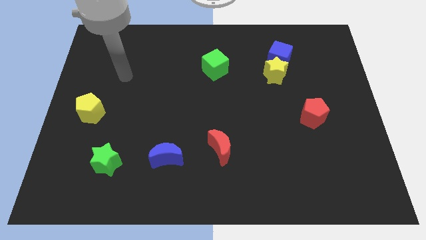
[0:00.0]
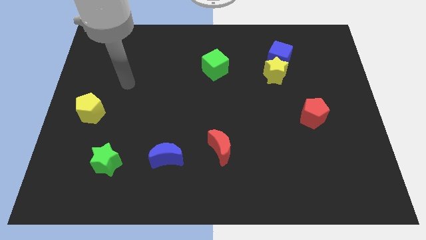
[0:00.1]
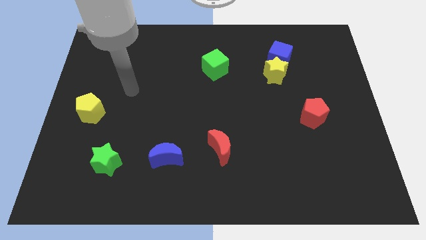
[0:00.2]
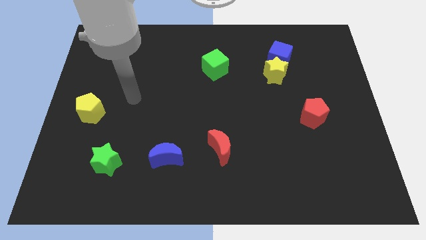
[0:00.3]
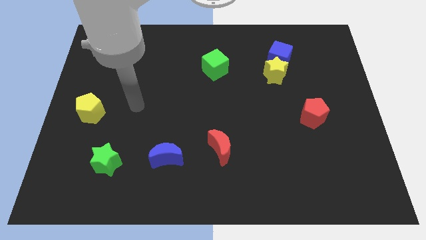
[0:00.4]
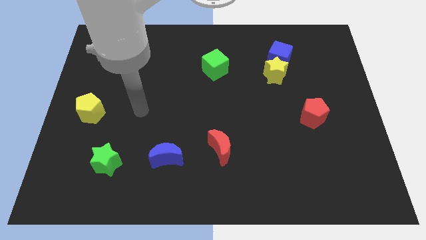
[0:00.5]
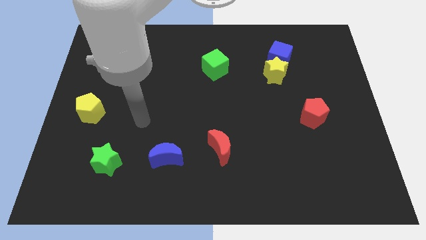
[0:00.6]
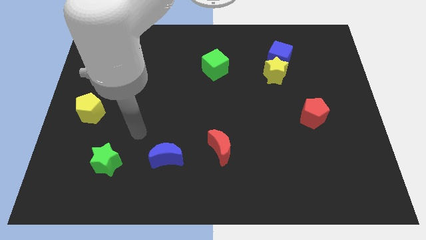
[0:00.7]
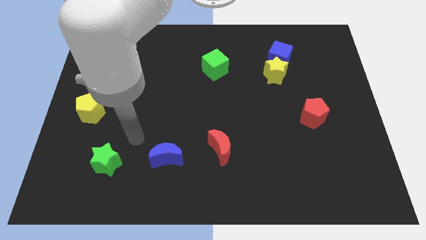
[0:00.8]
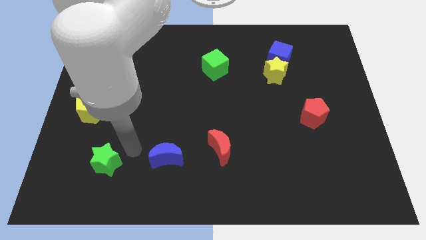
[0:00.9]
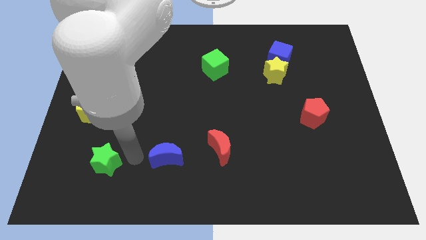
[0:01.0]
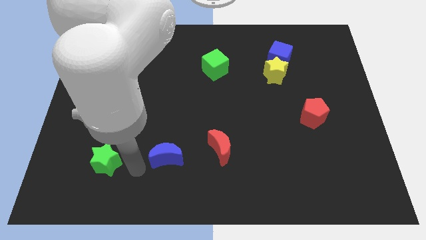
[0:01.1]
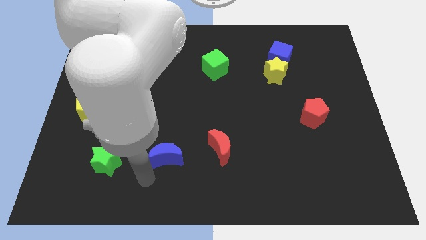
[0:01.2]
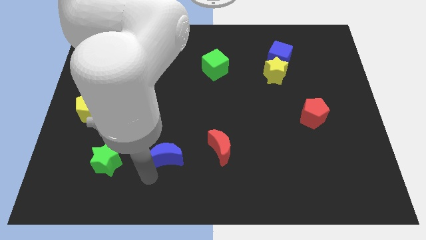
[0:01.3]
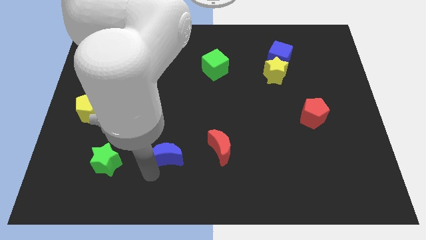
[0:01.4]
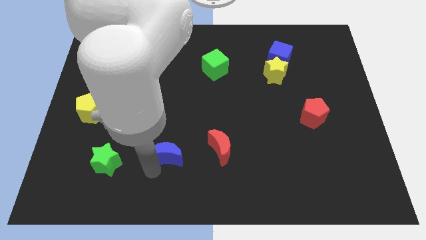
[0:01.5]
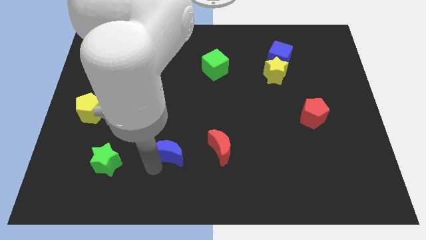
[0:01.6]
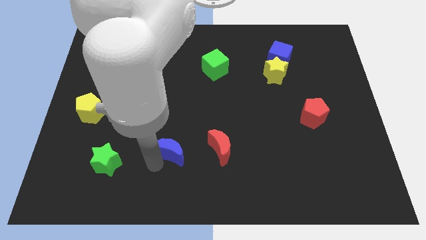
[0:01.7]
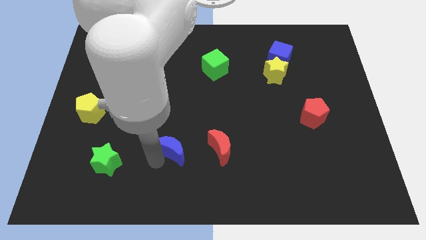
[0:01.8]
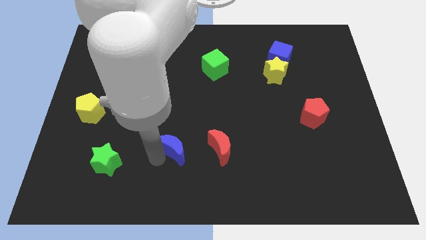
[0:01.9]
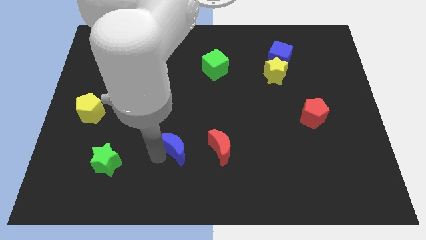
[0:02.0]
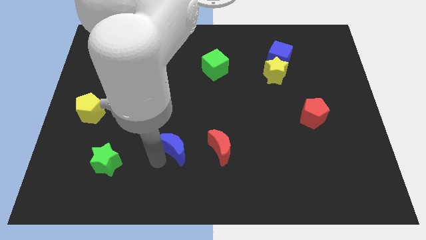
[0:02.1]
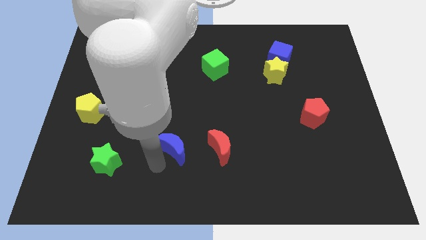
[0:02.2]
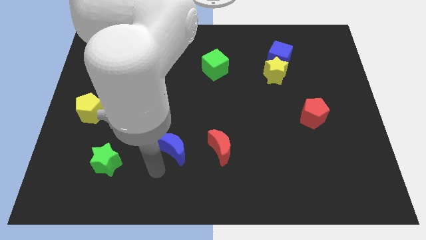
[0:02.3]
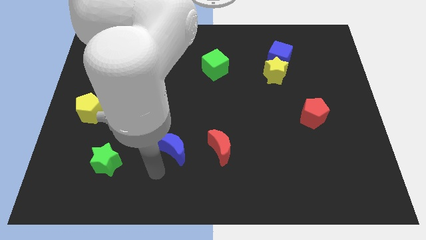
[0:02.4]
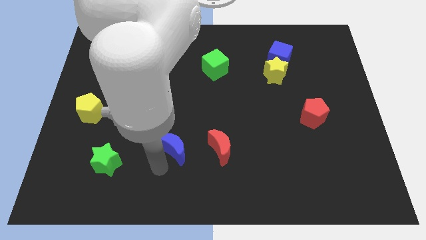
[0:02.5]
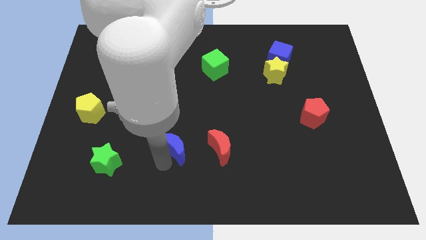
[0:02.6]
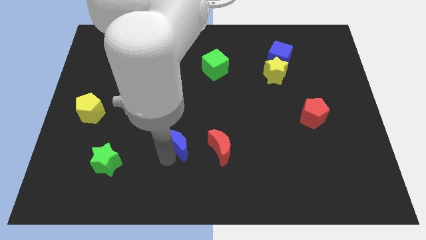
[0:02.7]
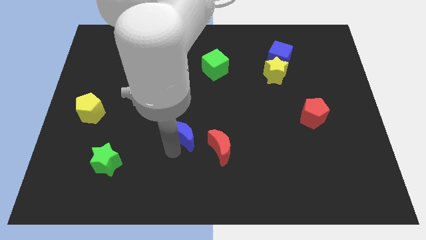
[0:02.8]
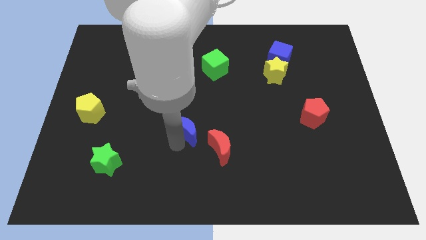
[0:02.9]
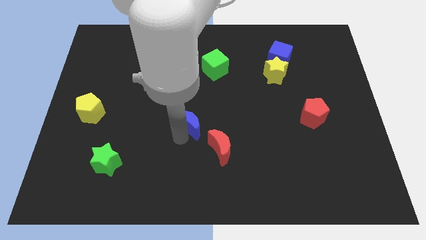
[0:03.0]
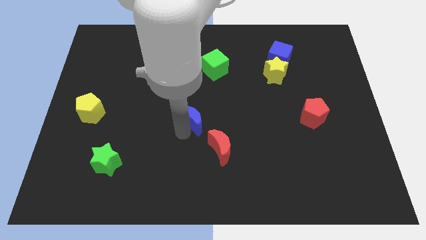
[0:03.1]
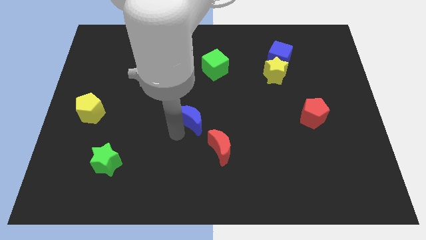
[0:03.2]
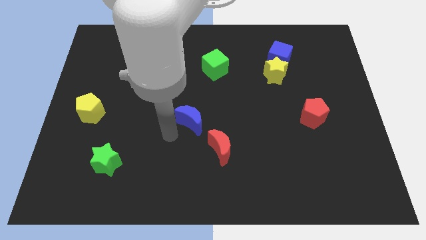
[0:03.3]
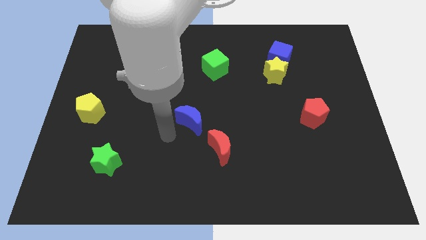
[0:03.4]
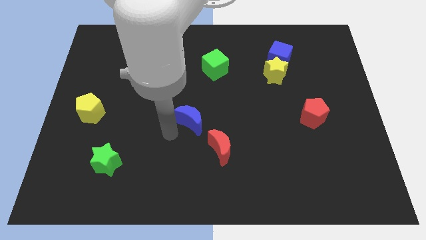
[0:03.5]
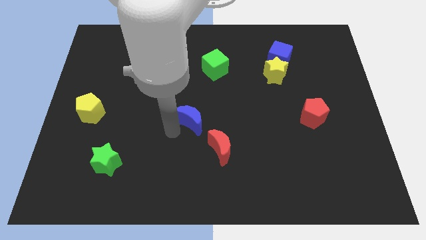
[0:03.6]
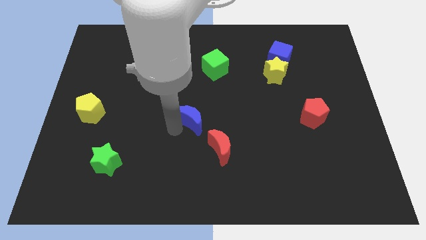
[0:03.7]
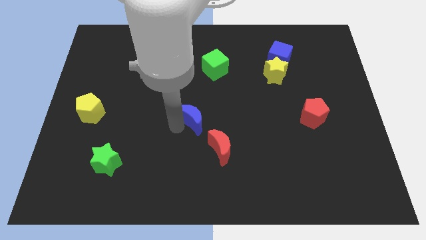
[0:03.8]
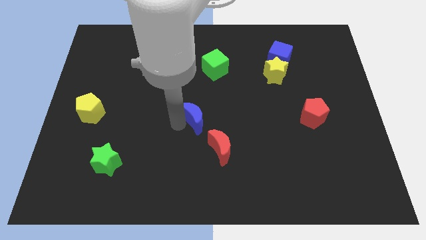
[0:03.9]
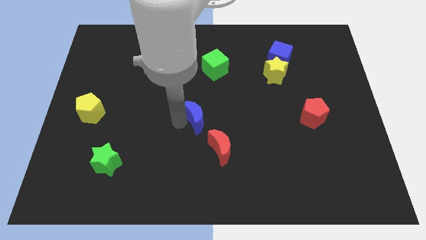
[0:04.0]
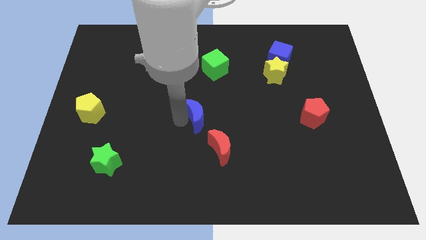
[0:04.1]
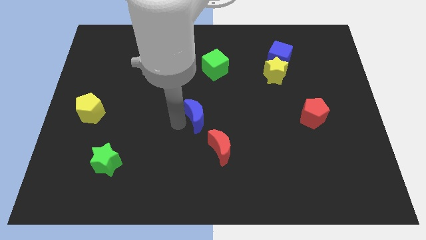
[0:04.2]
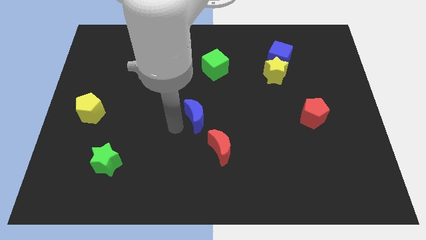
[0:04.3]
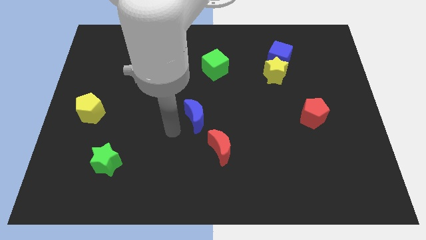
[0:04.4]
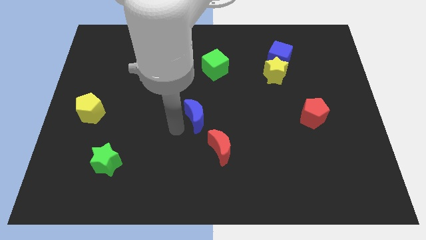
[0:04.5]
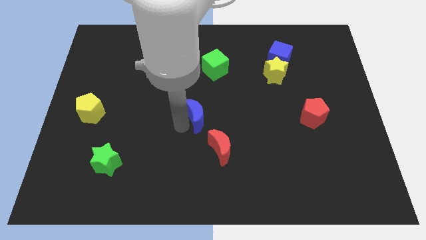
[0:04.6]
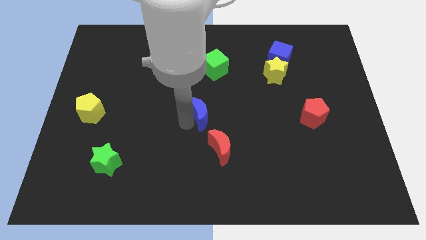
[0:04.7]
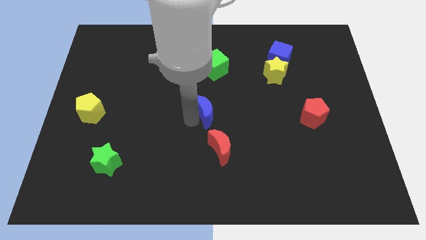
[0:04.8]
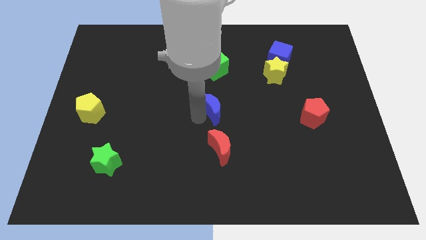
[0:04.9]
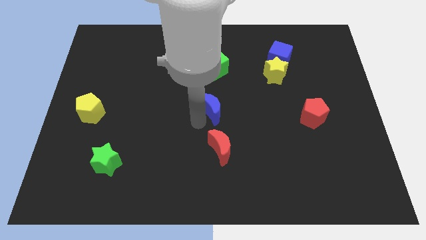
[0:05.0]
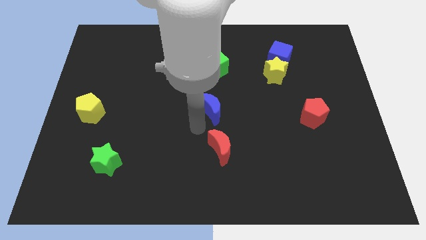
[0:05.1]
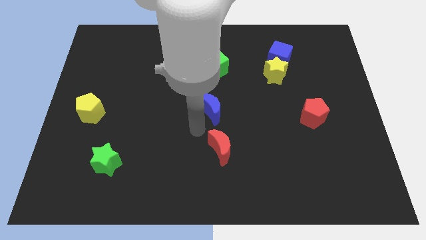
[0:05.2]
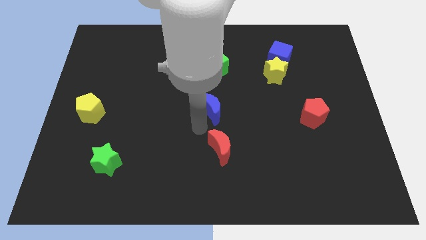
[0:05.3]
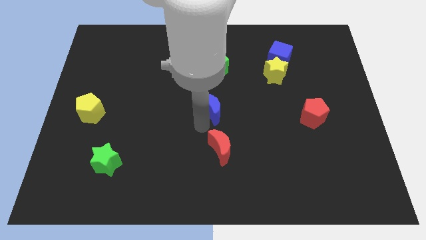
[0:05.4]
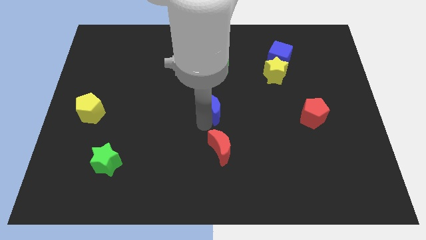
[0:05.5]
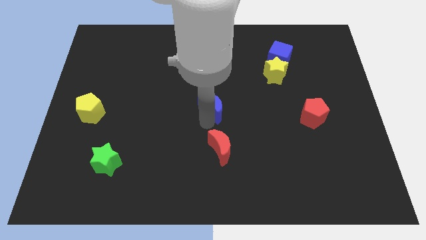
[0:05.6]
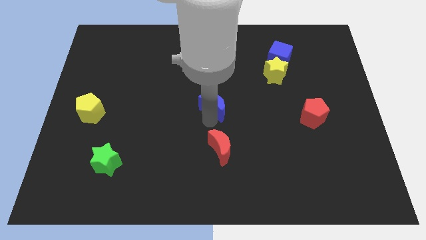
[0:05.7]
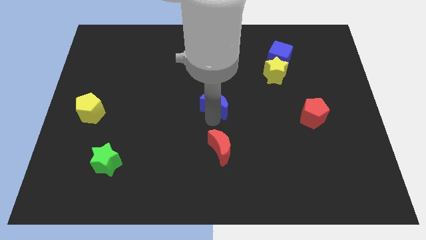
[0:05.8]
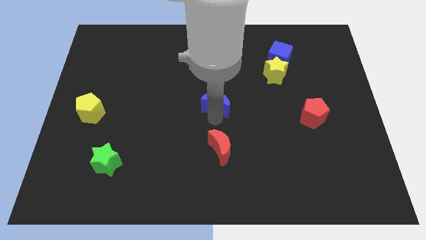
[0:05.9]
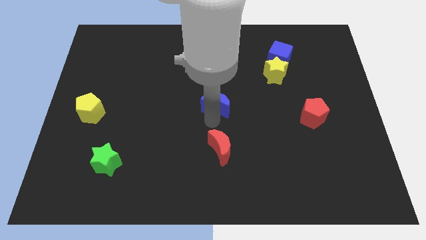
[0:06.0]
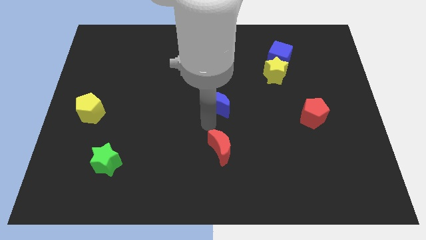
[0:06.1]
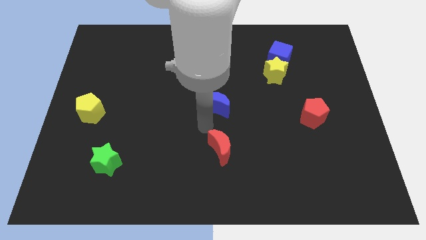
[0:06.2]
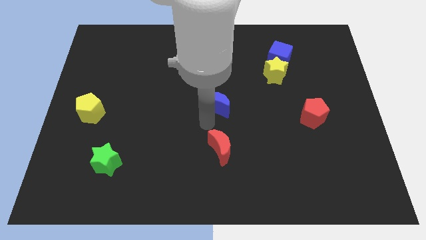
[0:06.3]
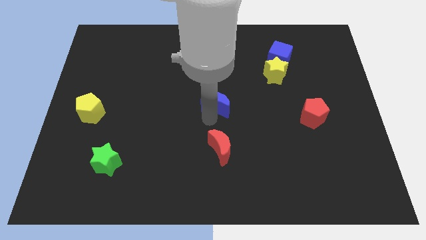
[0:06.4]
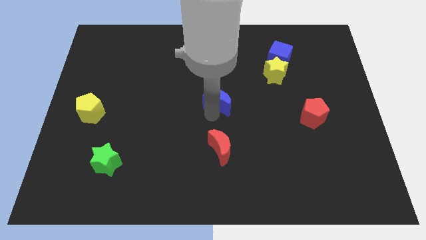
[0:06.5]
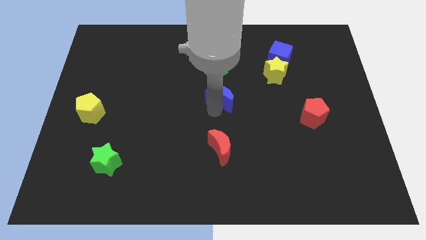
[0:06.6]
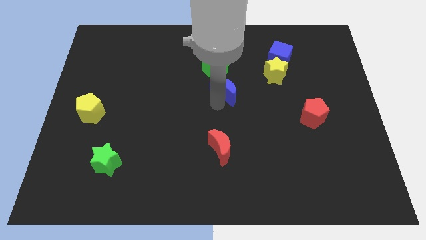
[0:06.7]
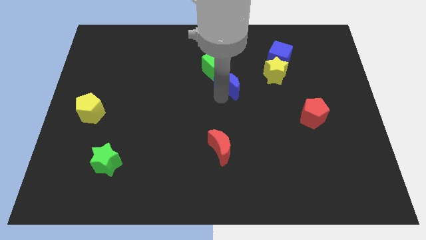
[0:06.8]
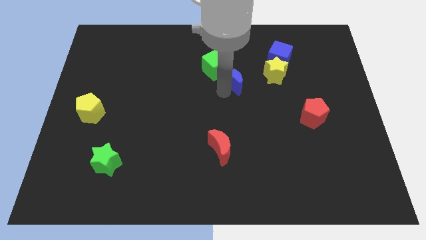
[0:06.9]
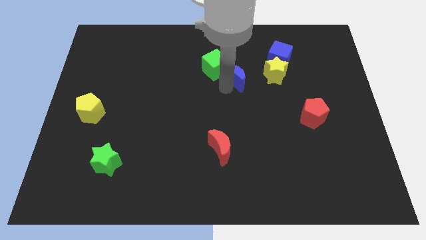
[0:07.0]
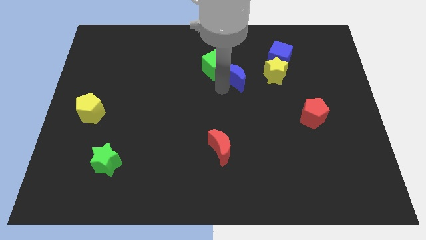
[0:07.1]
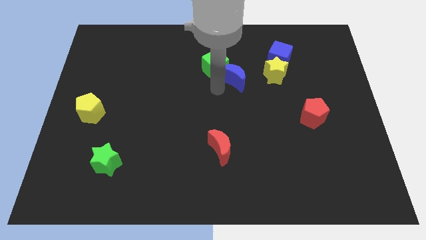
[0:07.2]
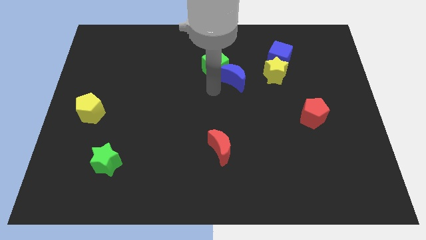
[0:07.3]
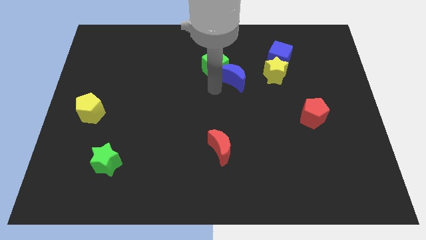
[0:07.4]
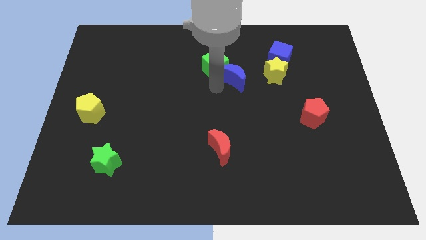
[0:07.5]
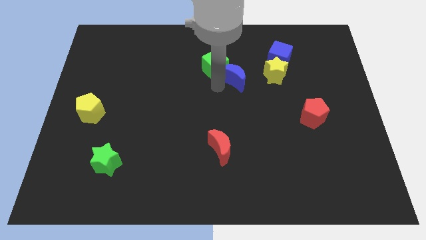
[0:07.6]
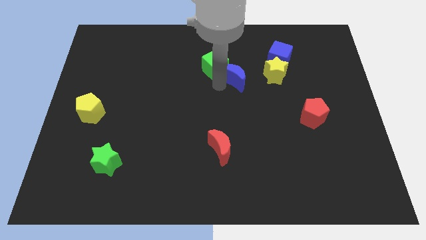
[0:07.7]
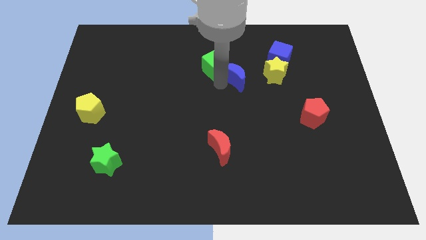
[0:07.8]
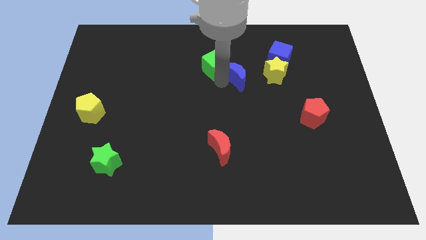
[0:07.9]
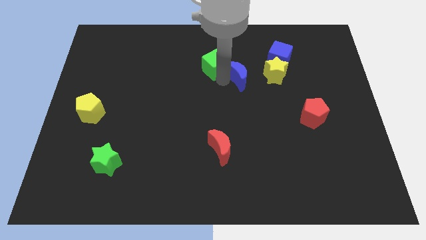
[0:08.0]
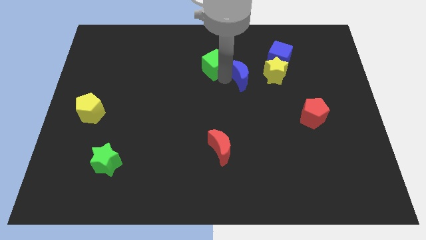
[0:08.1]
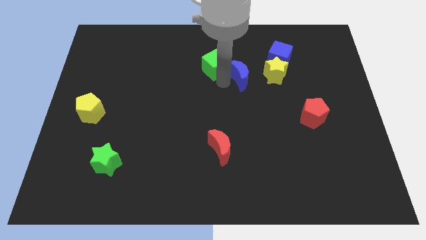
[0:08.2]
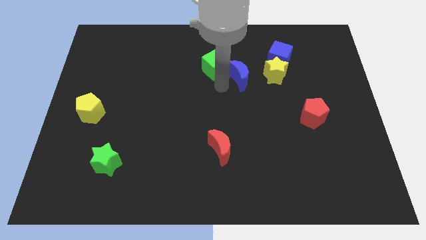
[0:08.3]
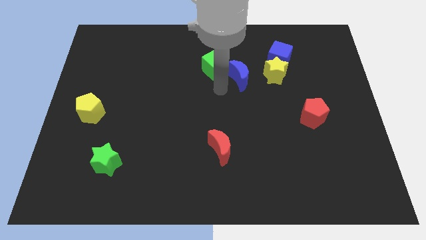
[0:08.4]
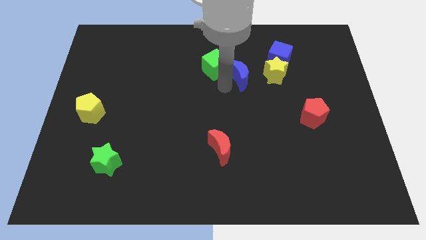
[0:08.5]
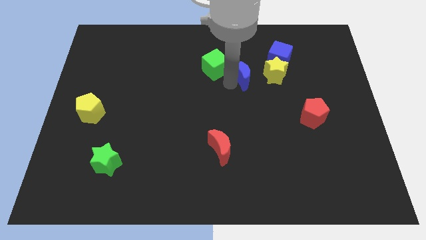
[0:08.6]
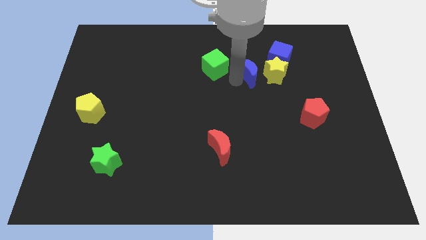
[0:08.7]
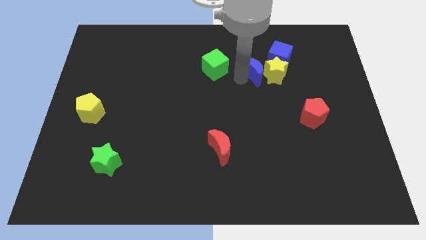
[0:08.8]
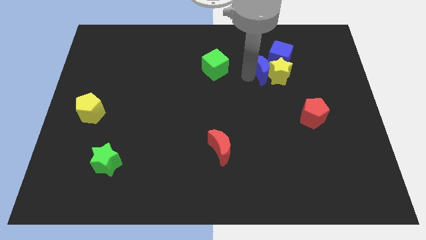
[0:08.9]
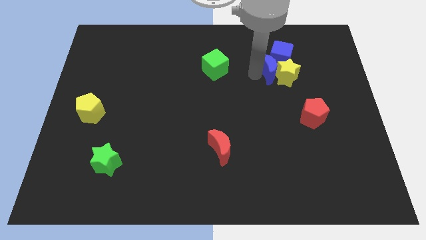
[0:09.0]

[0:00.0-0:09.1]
push the blue moon towards the blue cube
